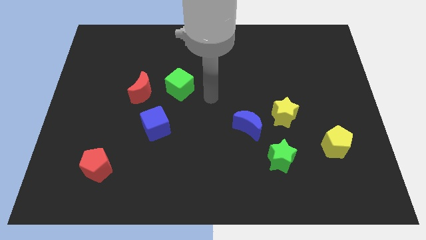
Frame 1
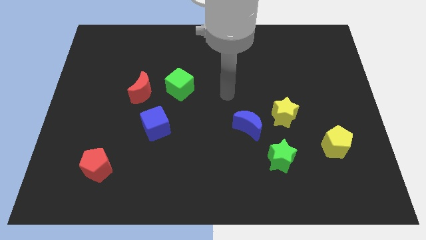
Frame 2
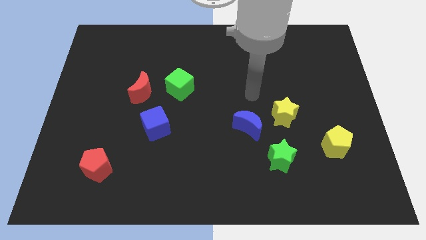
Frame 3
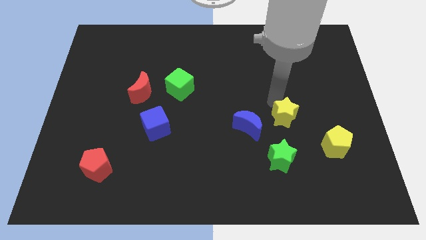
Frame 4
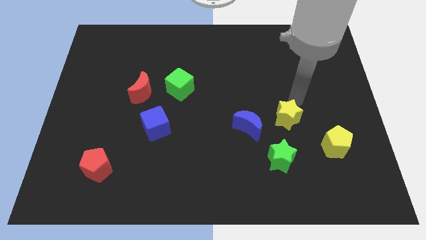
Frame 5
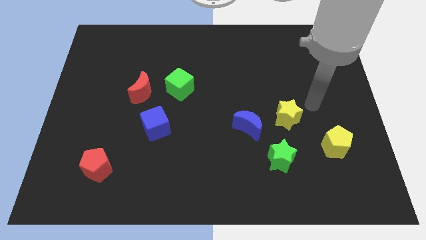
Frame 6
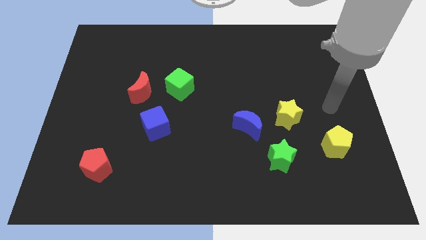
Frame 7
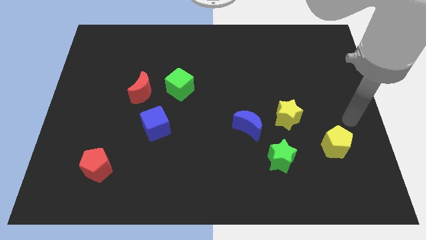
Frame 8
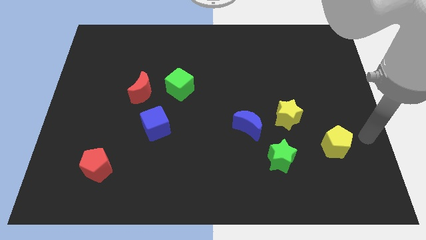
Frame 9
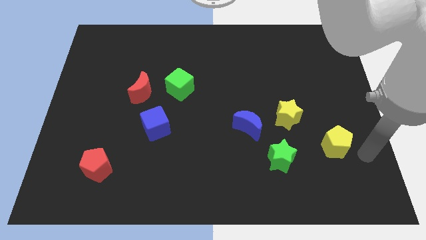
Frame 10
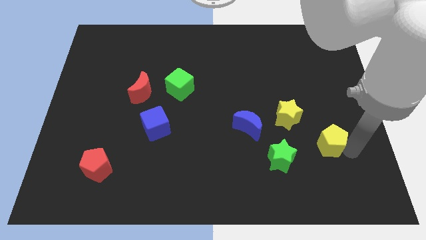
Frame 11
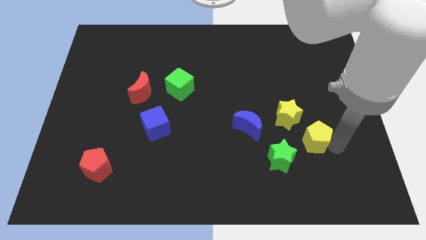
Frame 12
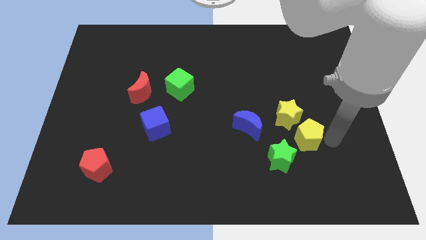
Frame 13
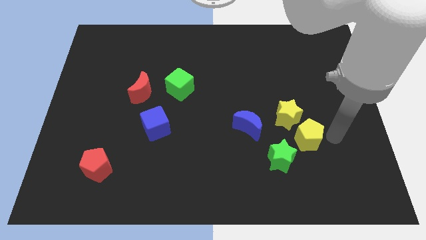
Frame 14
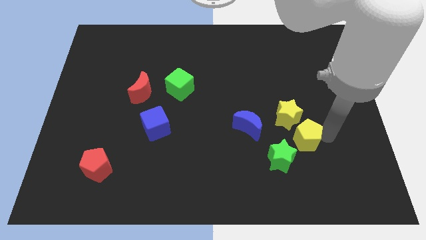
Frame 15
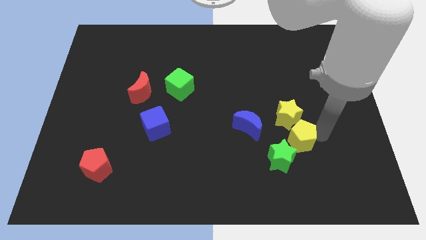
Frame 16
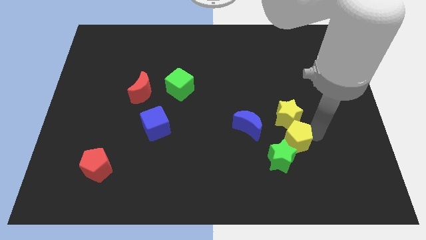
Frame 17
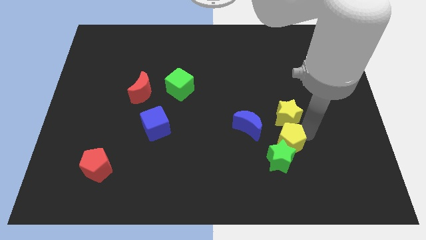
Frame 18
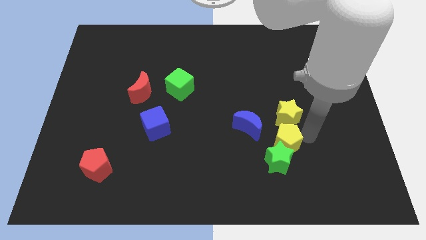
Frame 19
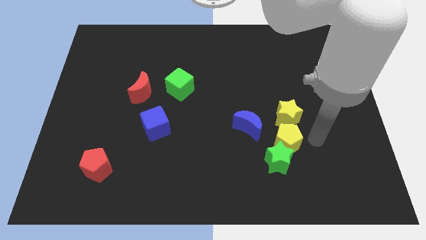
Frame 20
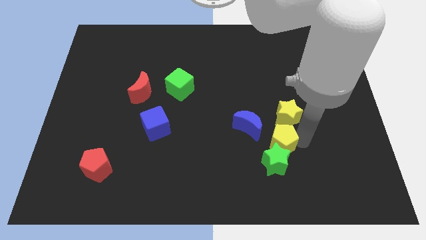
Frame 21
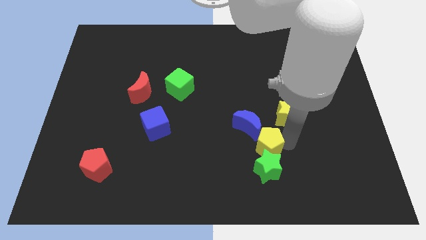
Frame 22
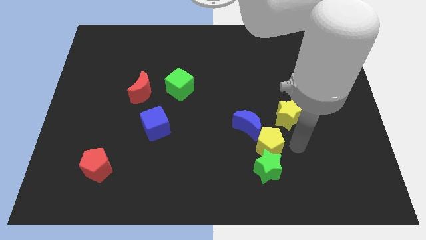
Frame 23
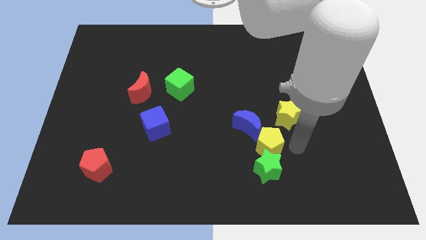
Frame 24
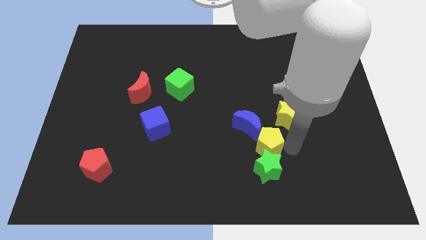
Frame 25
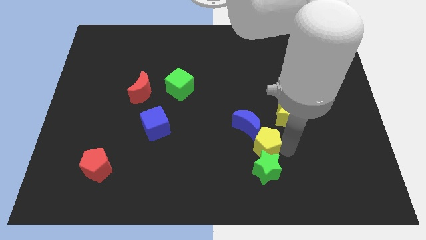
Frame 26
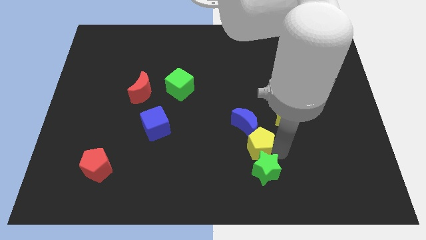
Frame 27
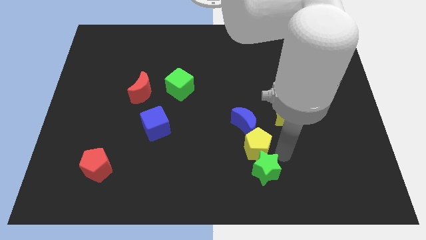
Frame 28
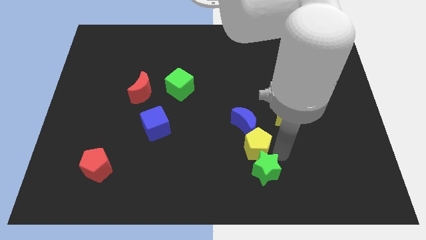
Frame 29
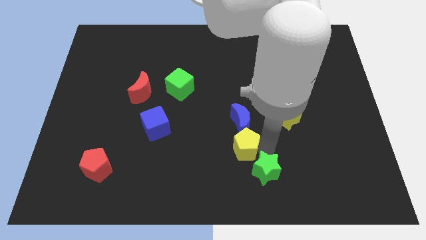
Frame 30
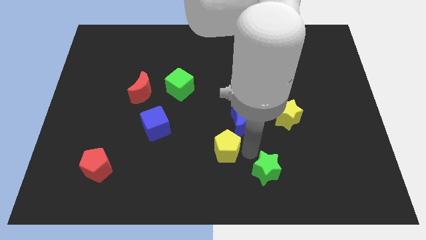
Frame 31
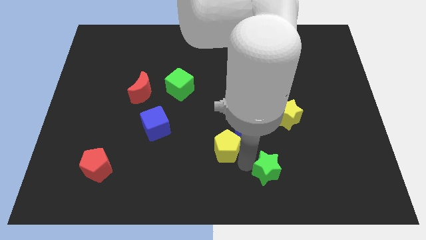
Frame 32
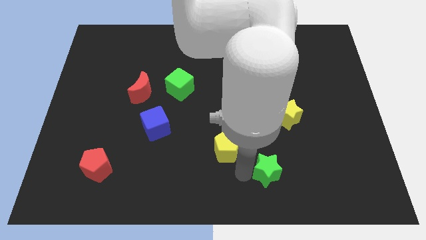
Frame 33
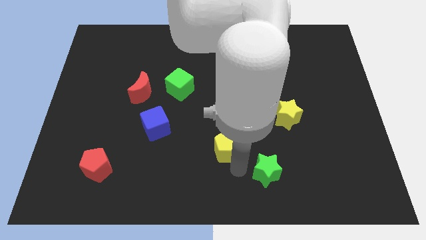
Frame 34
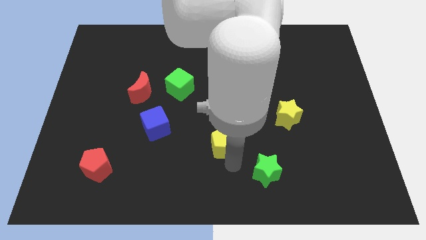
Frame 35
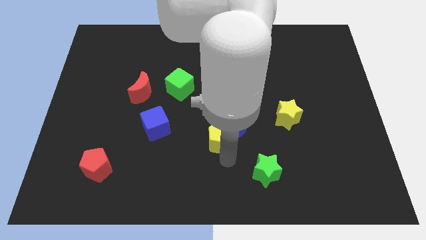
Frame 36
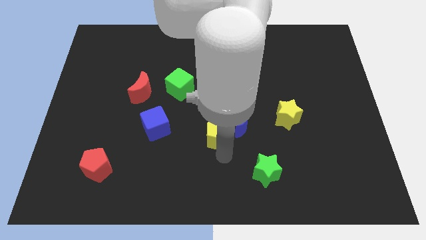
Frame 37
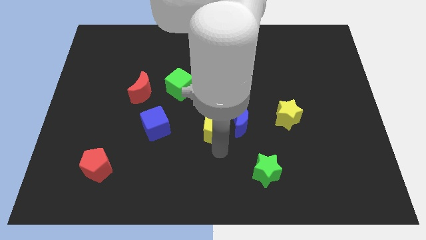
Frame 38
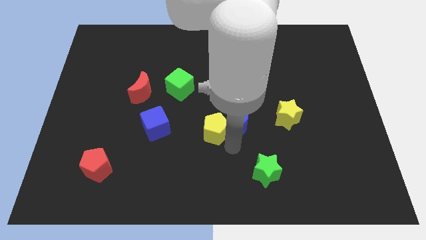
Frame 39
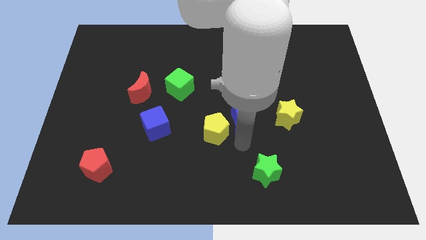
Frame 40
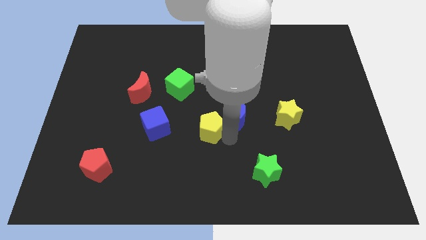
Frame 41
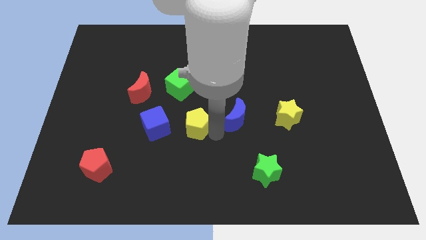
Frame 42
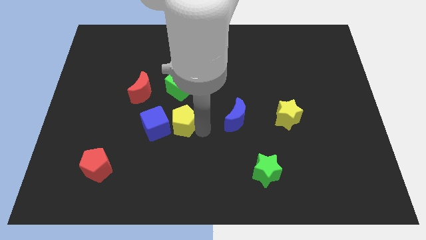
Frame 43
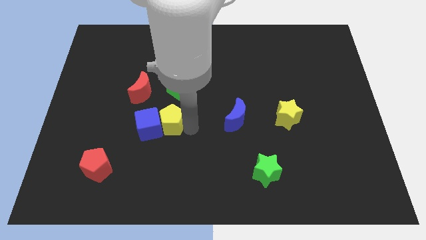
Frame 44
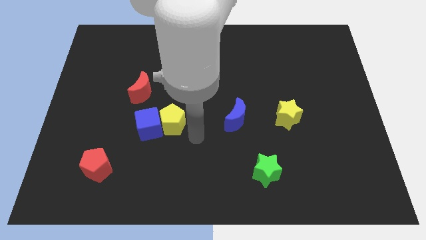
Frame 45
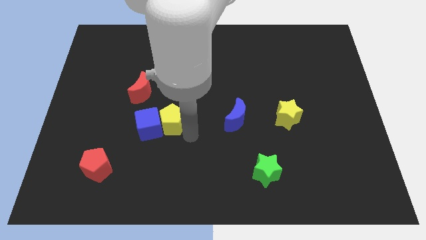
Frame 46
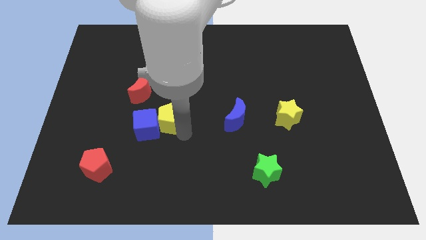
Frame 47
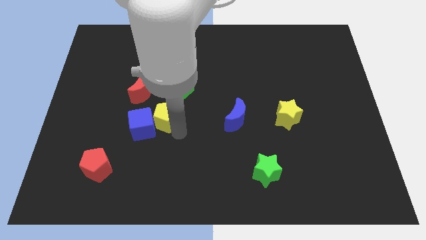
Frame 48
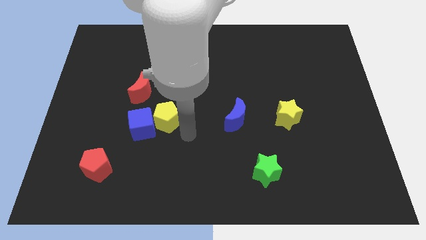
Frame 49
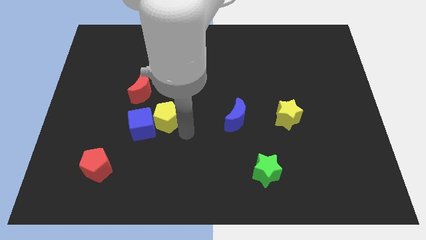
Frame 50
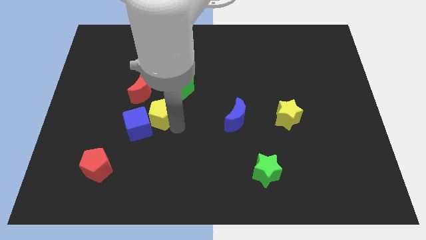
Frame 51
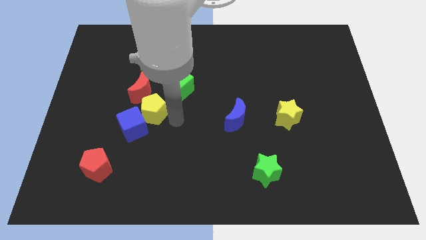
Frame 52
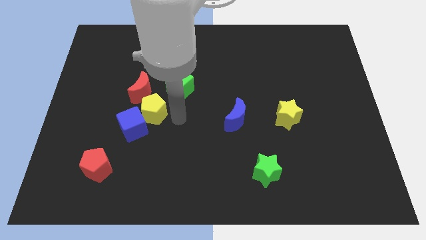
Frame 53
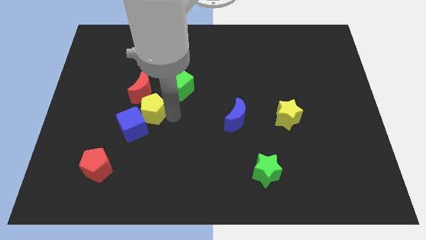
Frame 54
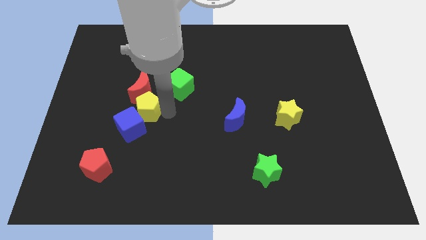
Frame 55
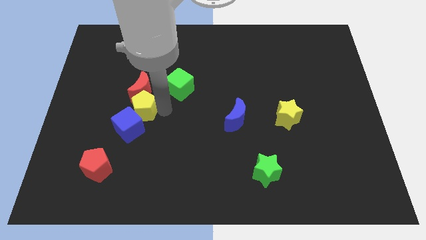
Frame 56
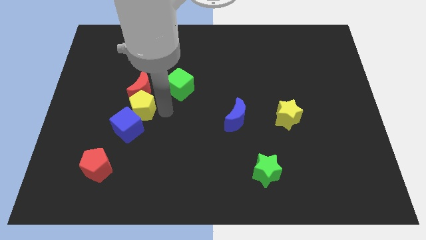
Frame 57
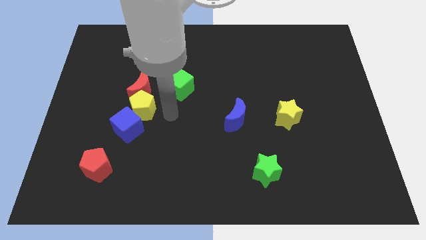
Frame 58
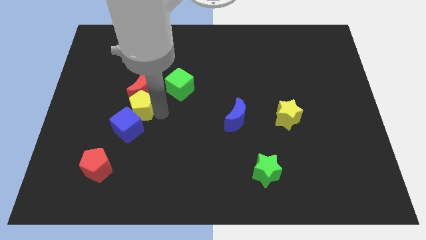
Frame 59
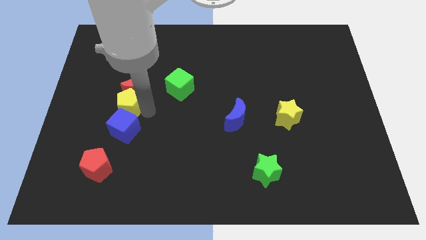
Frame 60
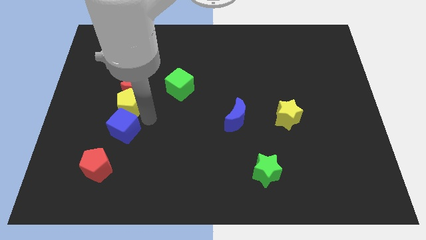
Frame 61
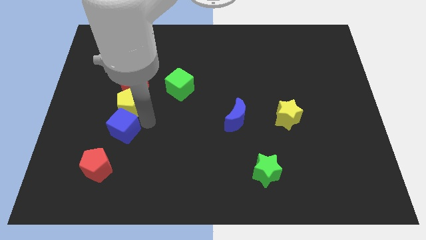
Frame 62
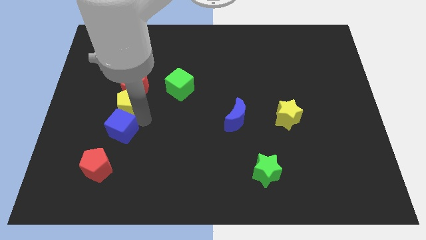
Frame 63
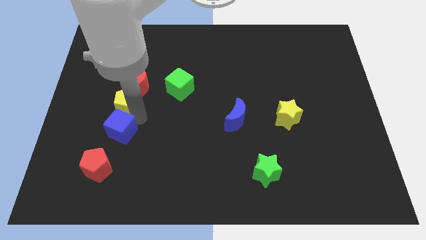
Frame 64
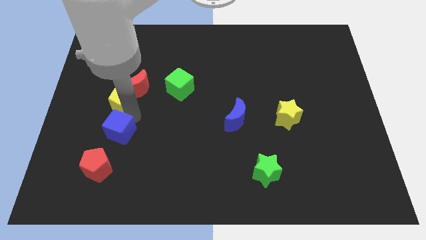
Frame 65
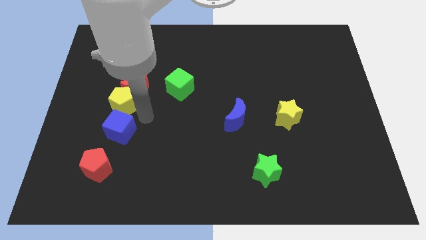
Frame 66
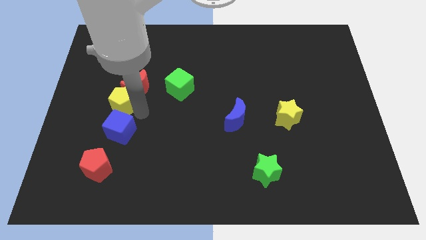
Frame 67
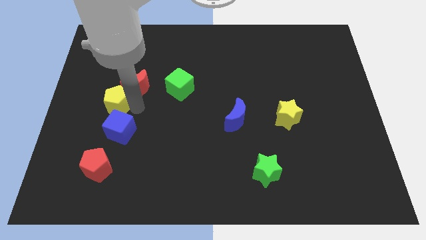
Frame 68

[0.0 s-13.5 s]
move the yellow pentagon left of the red moon
